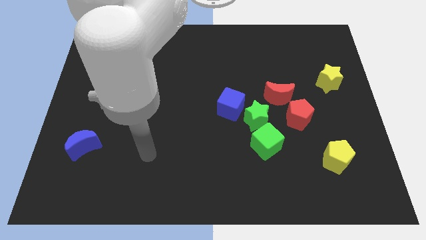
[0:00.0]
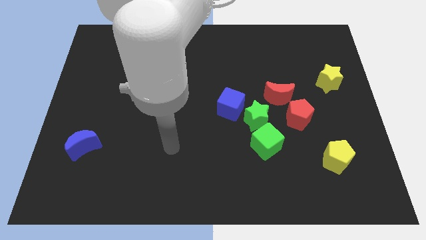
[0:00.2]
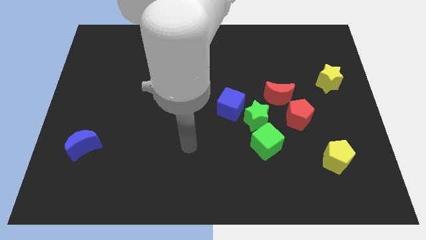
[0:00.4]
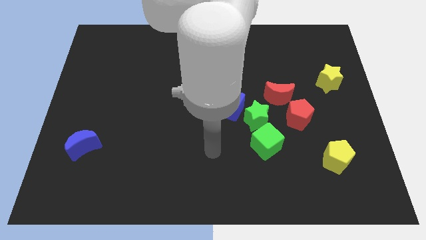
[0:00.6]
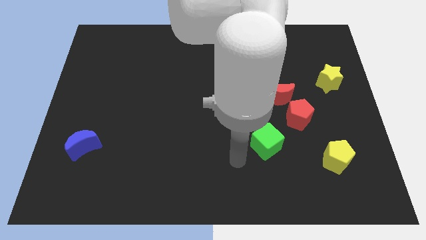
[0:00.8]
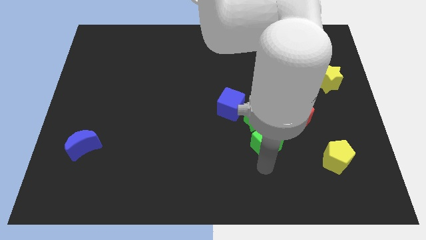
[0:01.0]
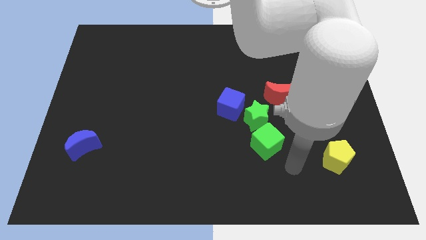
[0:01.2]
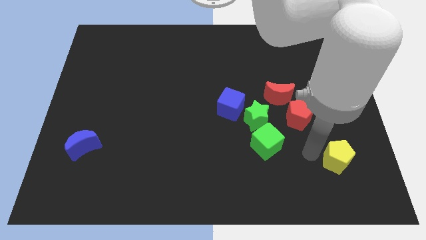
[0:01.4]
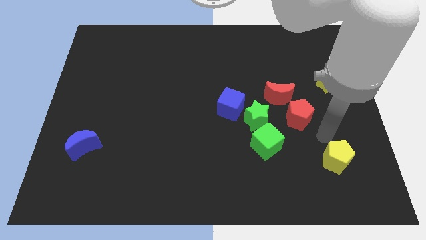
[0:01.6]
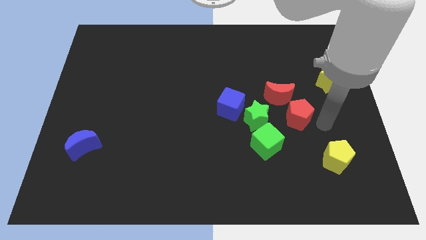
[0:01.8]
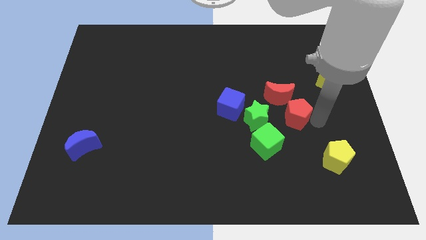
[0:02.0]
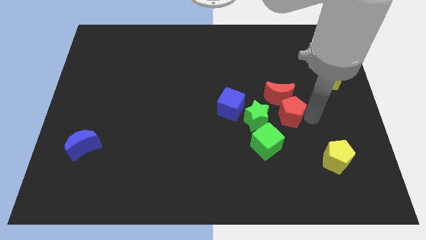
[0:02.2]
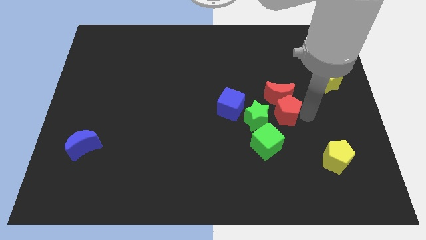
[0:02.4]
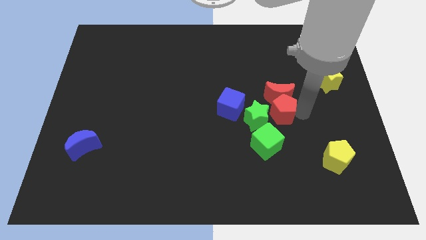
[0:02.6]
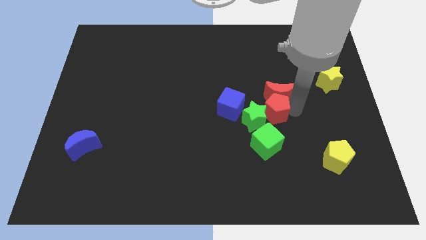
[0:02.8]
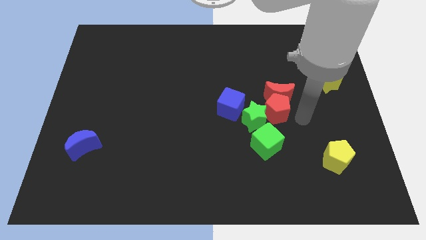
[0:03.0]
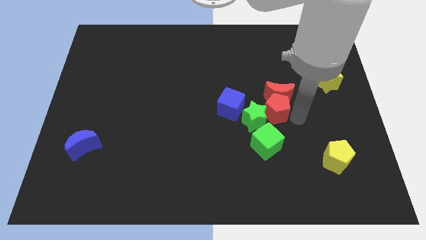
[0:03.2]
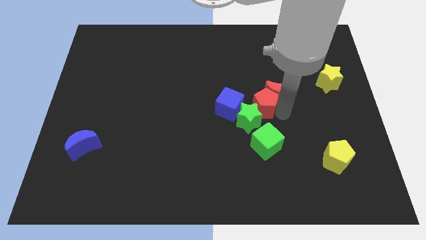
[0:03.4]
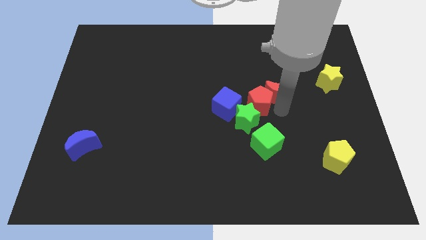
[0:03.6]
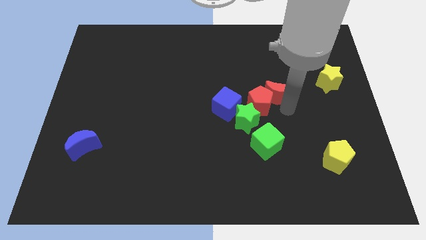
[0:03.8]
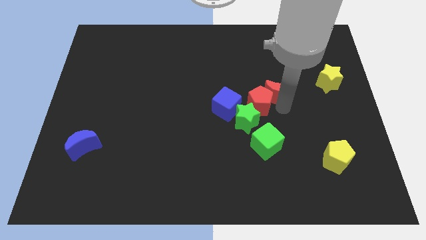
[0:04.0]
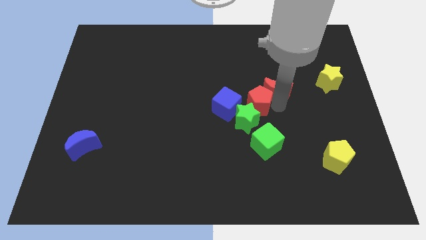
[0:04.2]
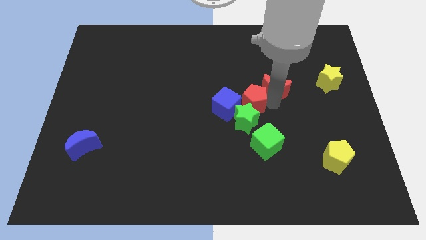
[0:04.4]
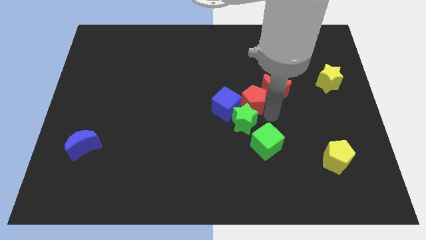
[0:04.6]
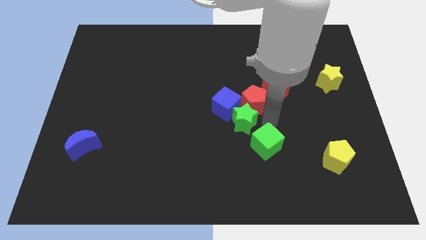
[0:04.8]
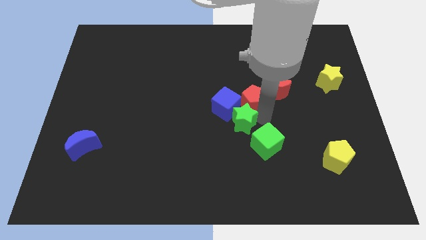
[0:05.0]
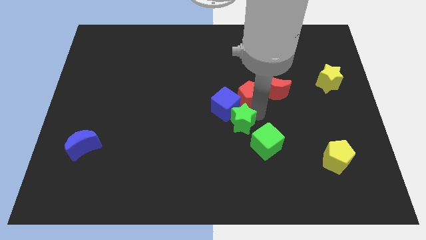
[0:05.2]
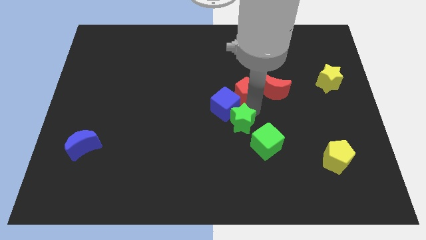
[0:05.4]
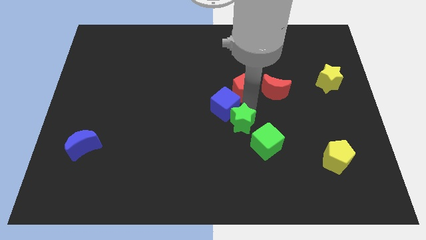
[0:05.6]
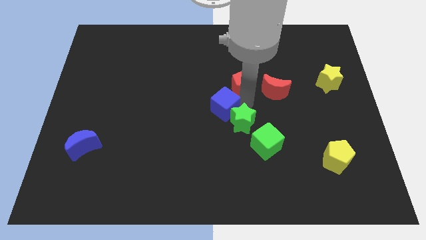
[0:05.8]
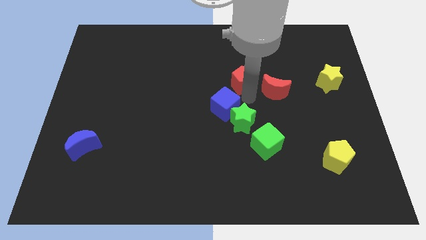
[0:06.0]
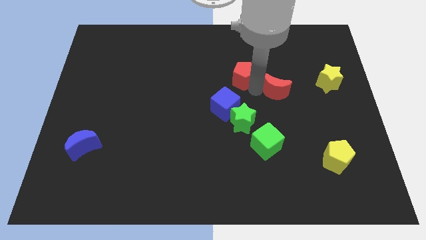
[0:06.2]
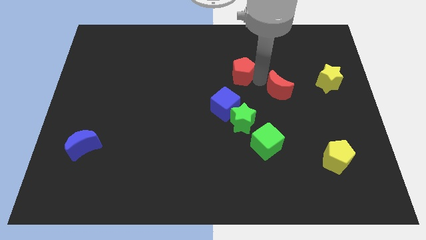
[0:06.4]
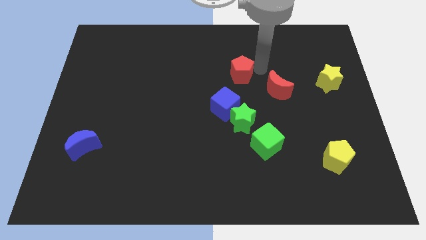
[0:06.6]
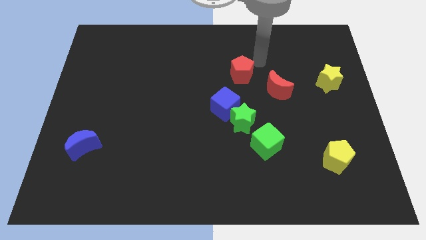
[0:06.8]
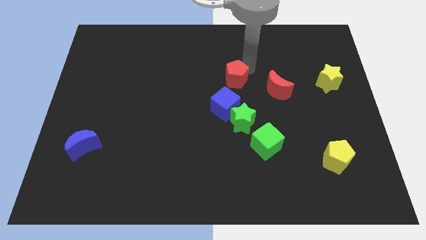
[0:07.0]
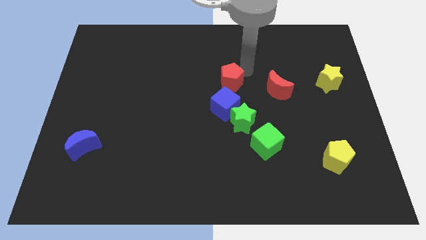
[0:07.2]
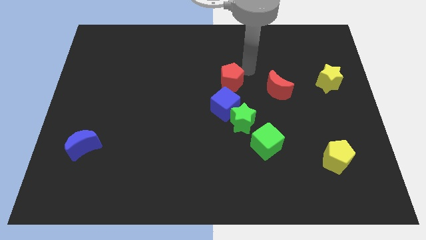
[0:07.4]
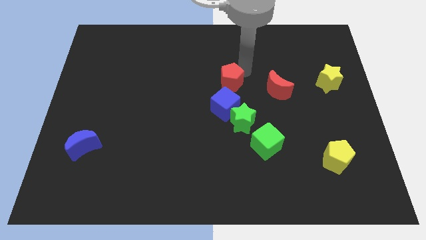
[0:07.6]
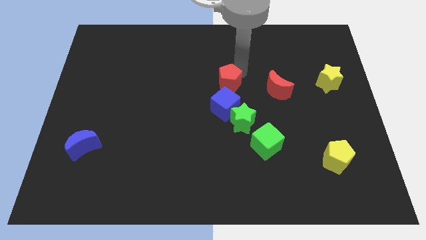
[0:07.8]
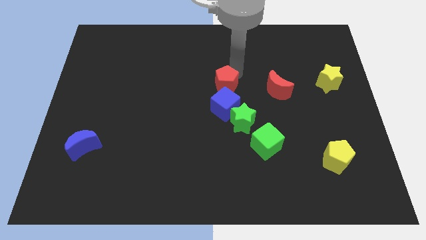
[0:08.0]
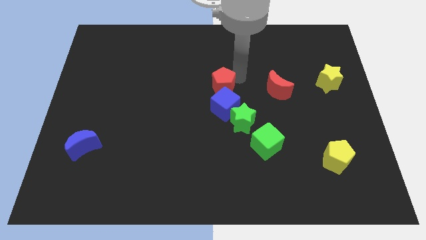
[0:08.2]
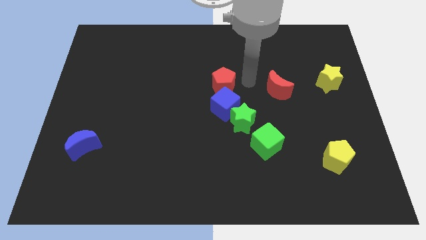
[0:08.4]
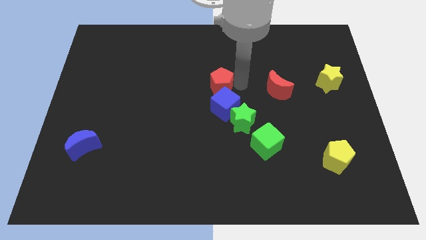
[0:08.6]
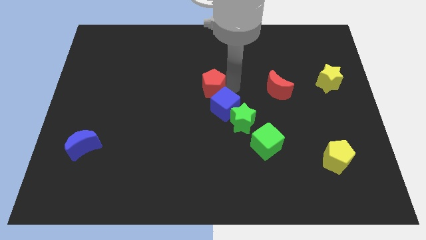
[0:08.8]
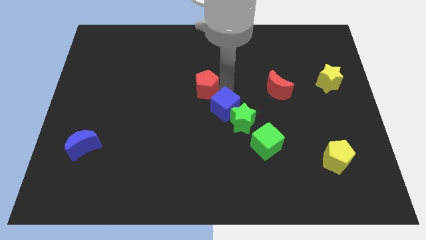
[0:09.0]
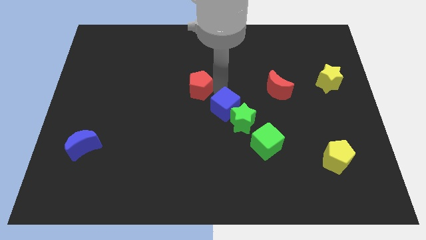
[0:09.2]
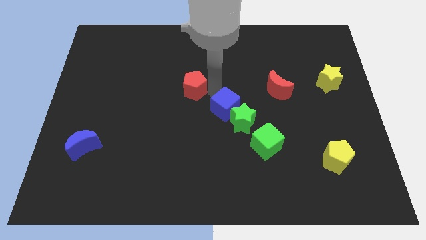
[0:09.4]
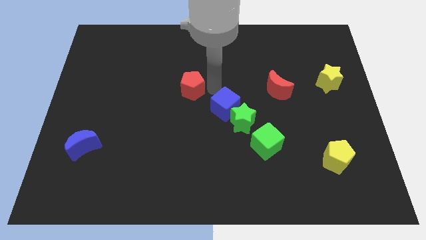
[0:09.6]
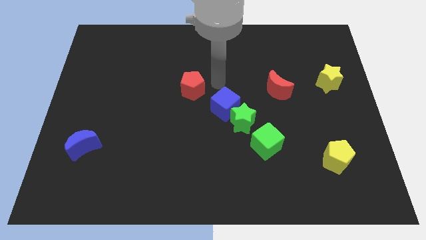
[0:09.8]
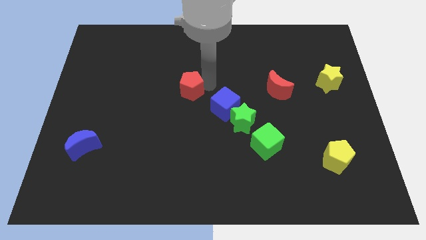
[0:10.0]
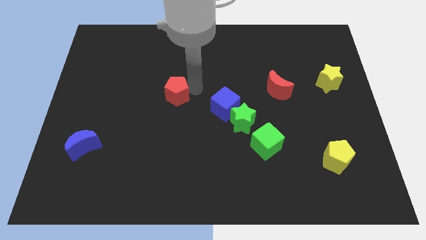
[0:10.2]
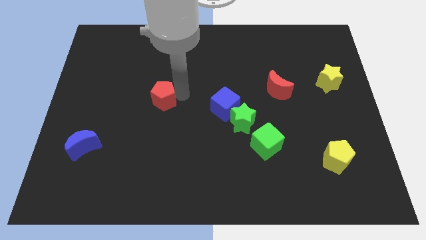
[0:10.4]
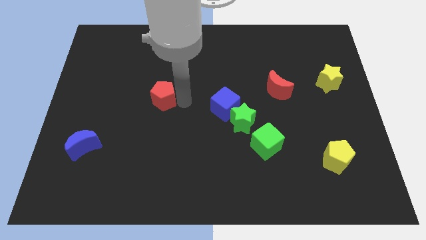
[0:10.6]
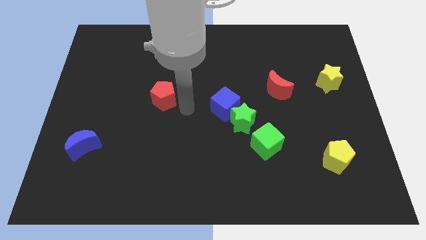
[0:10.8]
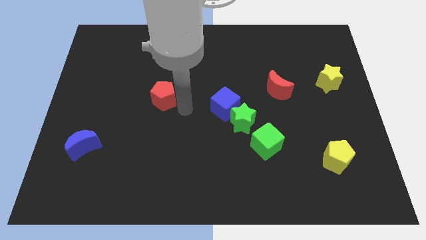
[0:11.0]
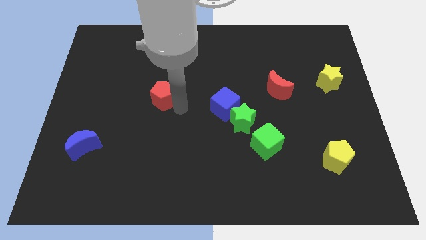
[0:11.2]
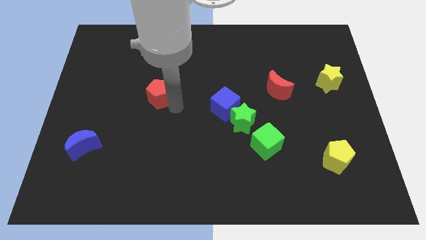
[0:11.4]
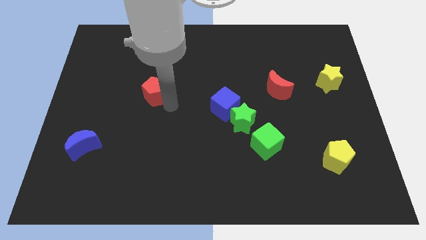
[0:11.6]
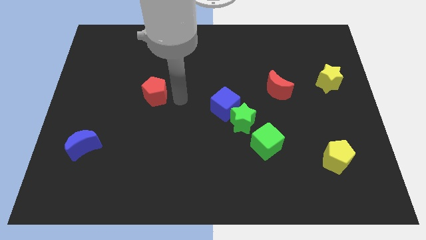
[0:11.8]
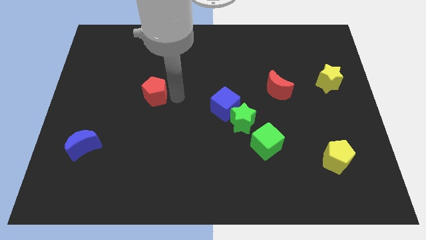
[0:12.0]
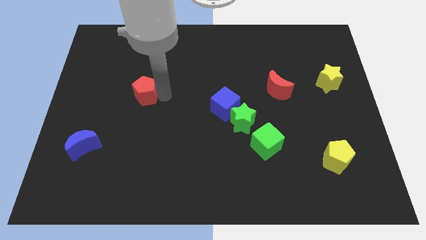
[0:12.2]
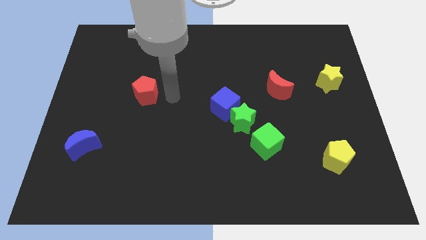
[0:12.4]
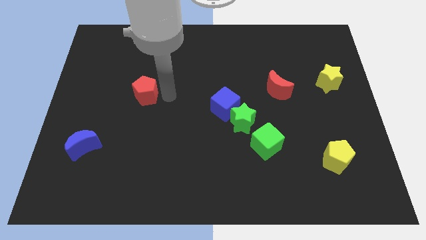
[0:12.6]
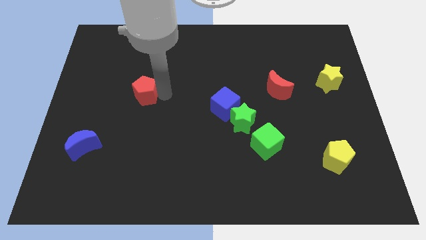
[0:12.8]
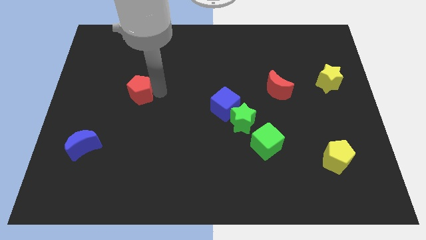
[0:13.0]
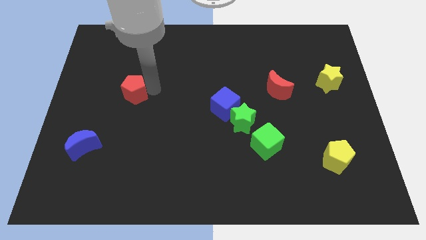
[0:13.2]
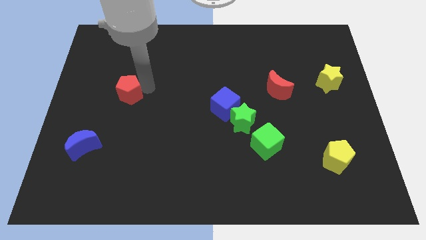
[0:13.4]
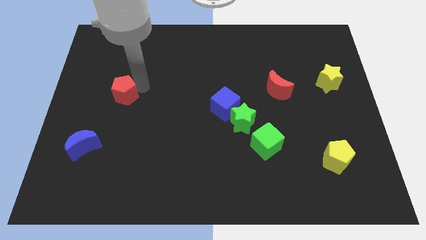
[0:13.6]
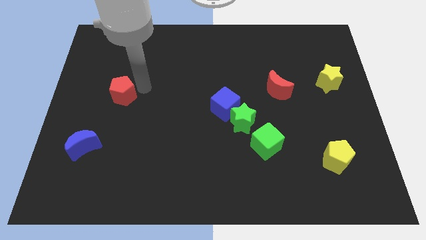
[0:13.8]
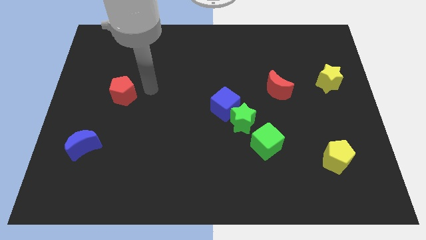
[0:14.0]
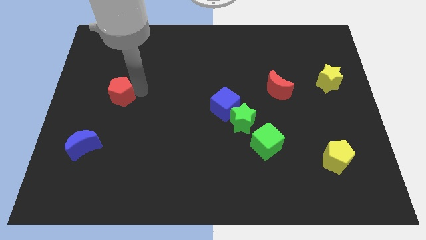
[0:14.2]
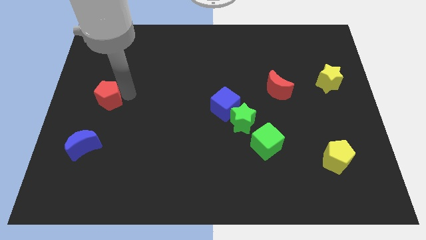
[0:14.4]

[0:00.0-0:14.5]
push the red pentagon to the left side of the board
